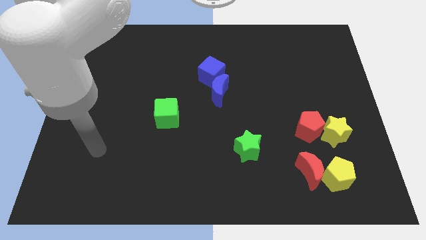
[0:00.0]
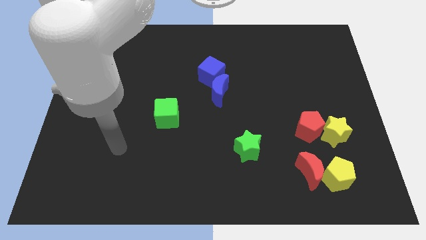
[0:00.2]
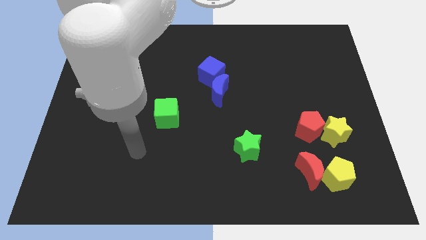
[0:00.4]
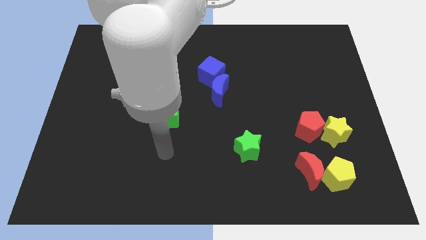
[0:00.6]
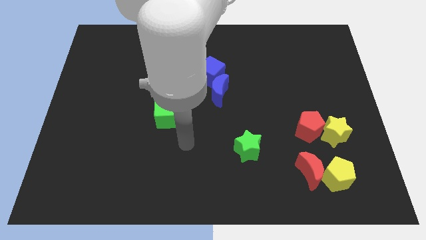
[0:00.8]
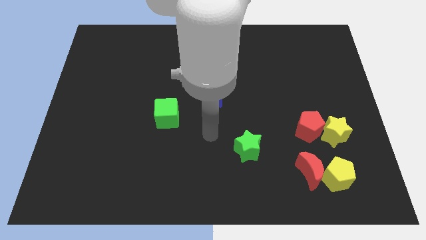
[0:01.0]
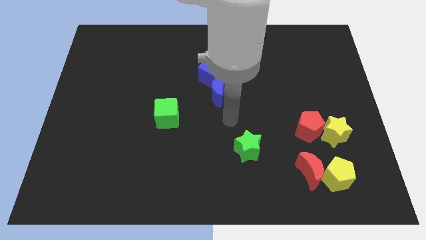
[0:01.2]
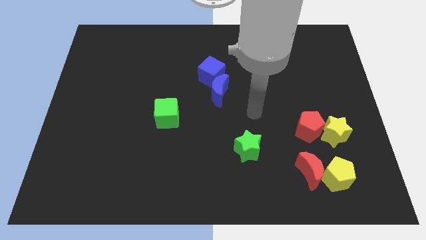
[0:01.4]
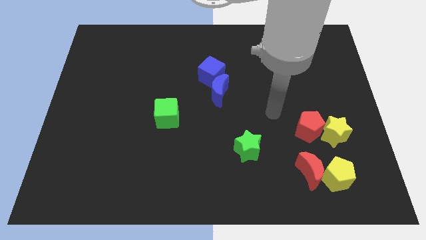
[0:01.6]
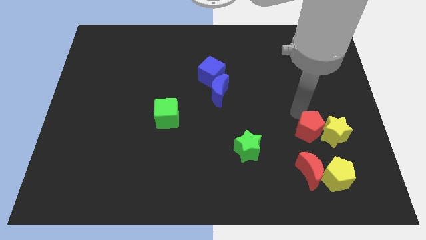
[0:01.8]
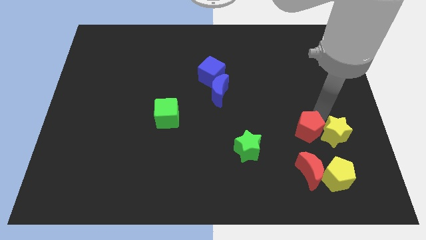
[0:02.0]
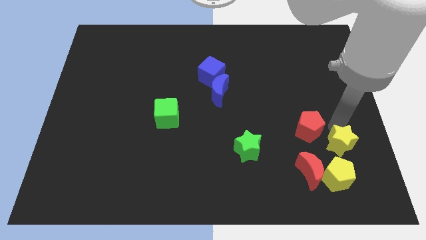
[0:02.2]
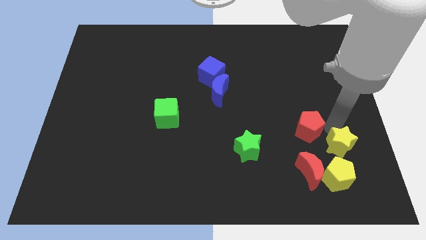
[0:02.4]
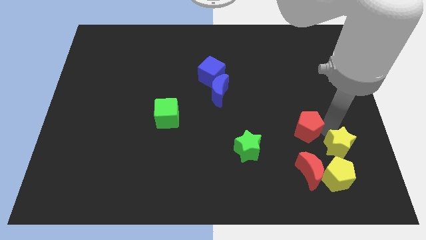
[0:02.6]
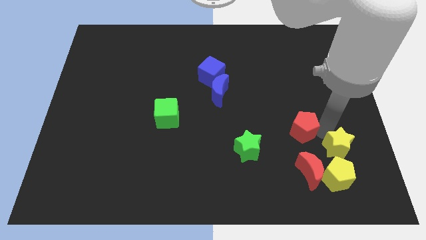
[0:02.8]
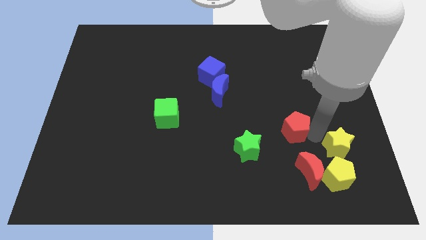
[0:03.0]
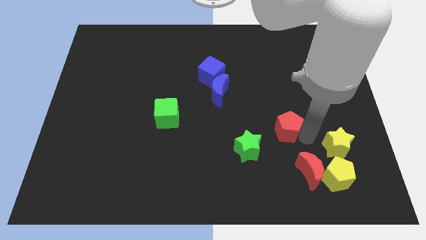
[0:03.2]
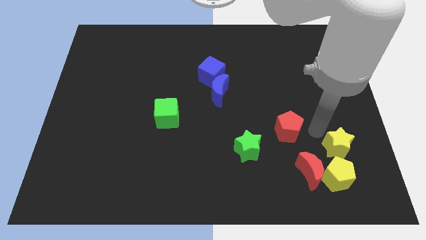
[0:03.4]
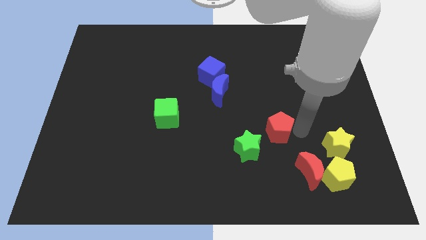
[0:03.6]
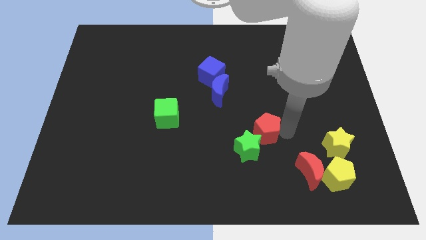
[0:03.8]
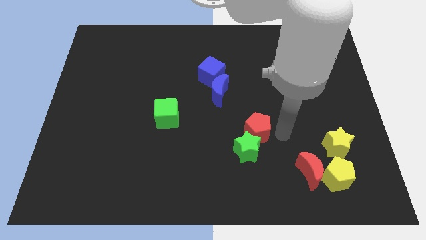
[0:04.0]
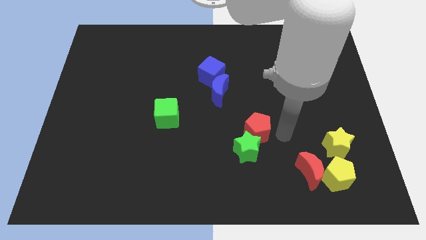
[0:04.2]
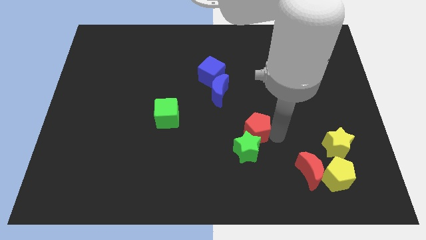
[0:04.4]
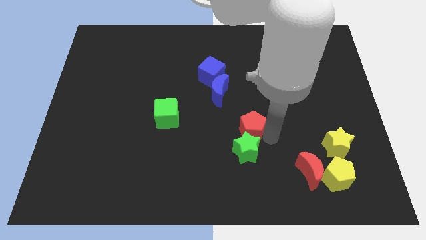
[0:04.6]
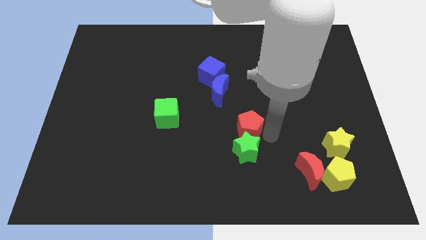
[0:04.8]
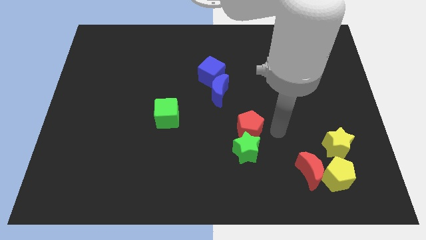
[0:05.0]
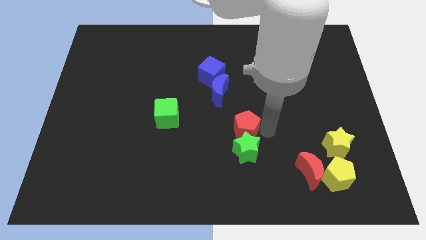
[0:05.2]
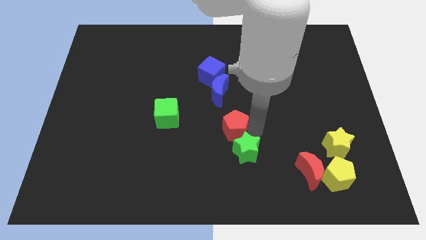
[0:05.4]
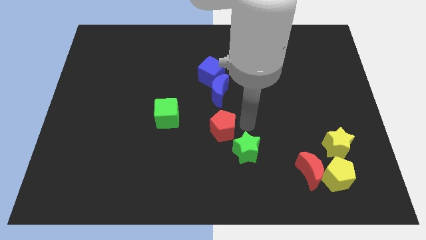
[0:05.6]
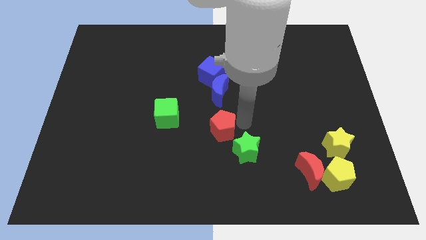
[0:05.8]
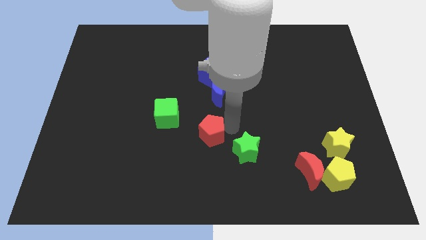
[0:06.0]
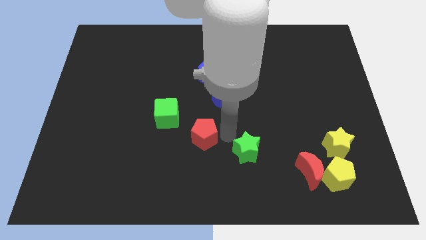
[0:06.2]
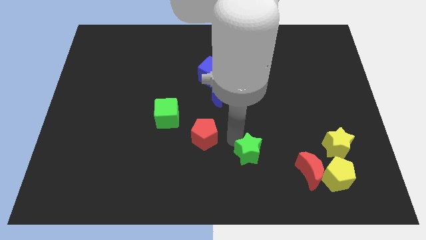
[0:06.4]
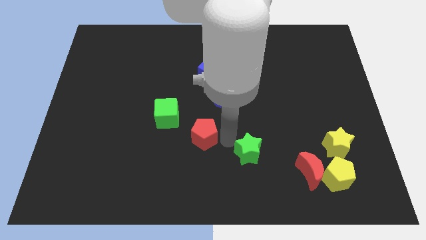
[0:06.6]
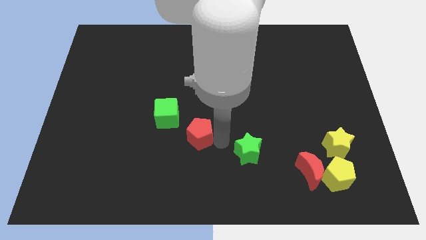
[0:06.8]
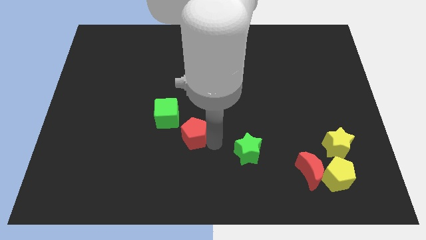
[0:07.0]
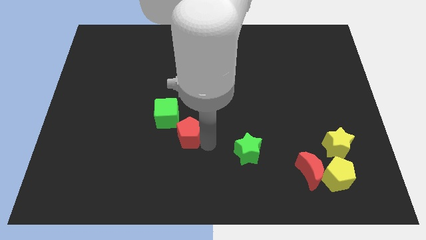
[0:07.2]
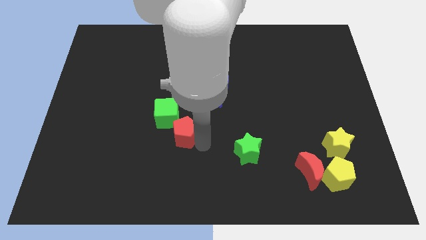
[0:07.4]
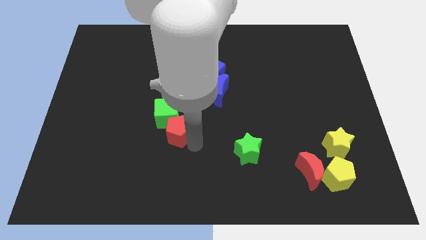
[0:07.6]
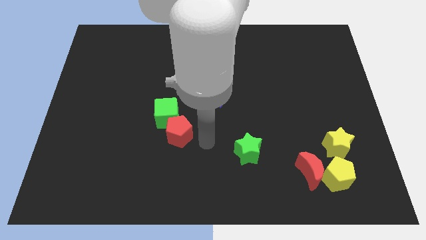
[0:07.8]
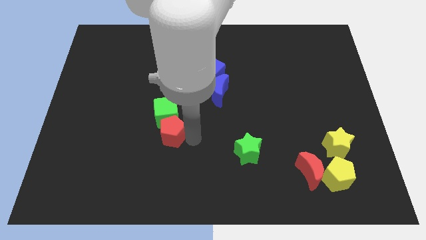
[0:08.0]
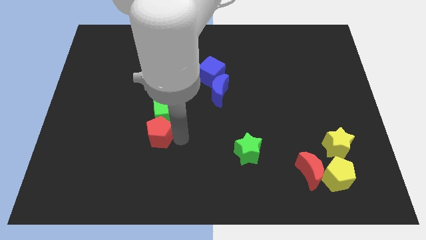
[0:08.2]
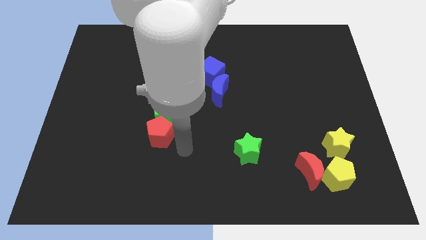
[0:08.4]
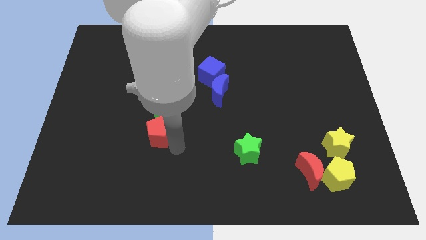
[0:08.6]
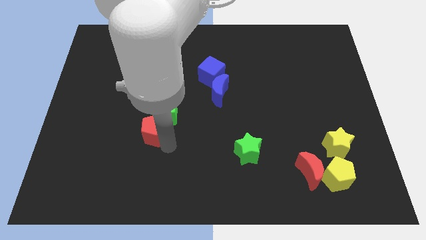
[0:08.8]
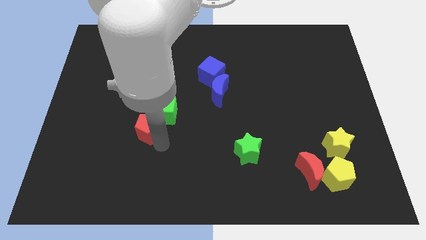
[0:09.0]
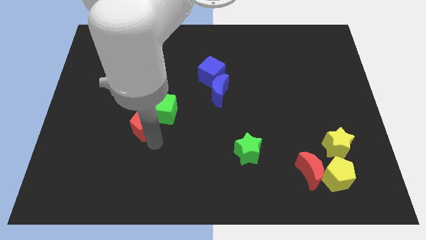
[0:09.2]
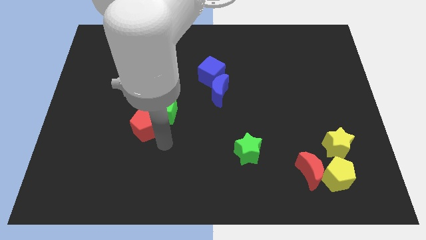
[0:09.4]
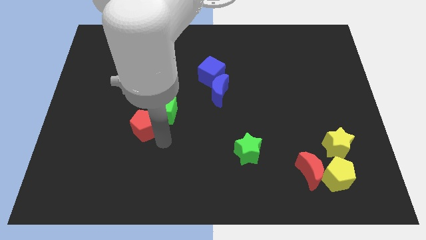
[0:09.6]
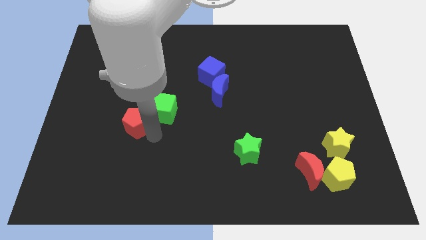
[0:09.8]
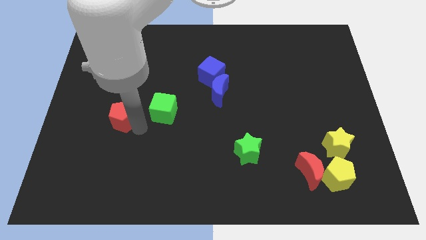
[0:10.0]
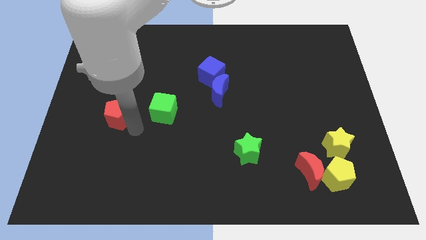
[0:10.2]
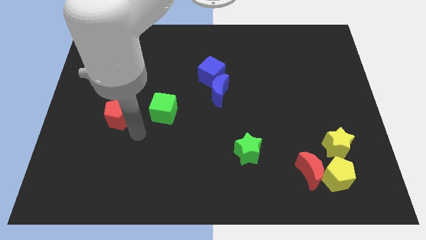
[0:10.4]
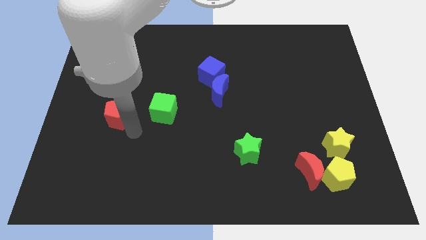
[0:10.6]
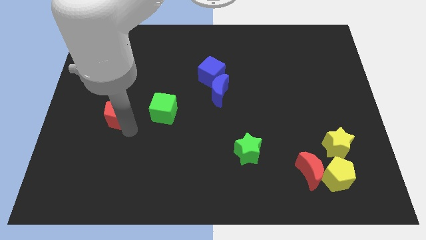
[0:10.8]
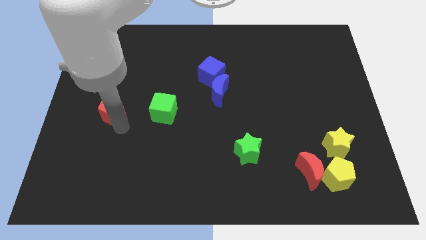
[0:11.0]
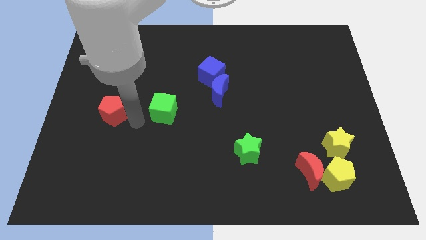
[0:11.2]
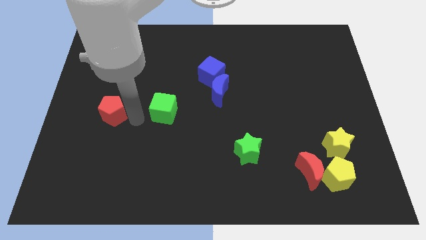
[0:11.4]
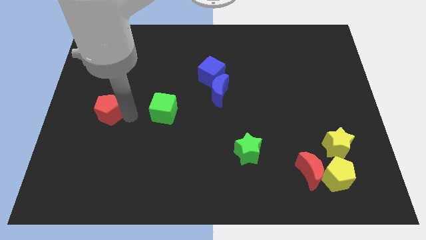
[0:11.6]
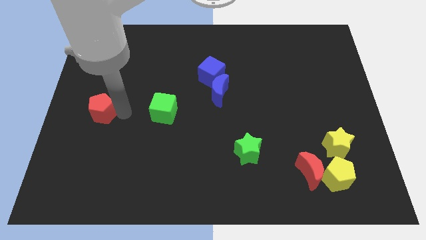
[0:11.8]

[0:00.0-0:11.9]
slide the red pentagon to the center left

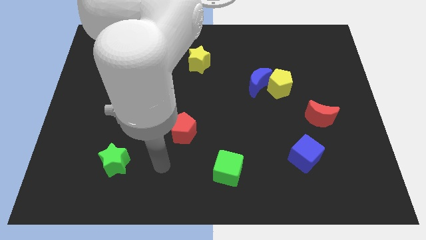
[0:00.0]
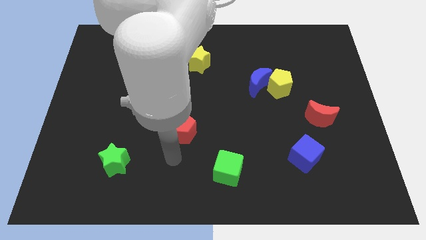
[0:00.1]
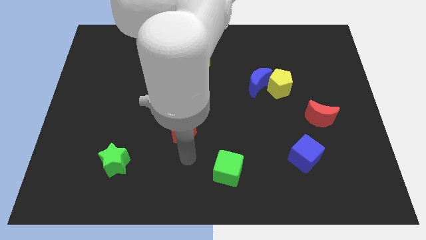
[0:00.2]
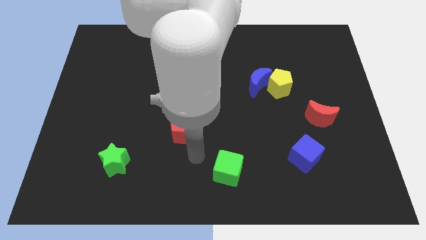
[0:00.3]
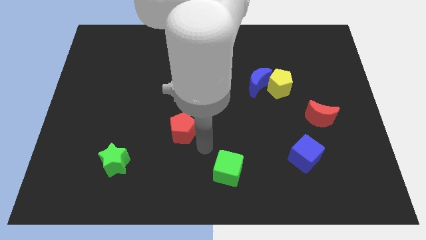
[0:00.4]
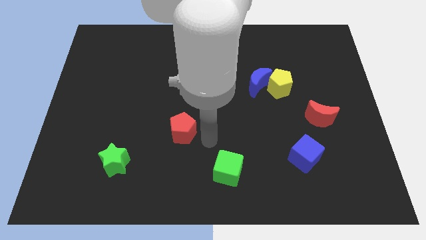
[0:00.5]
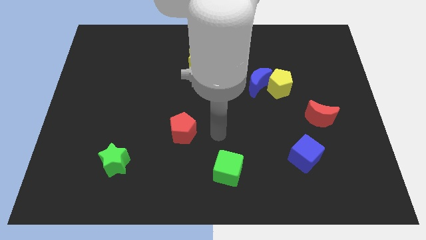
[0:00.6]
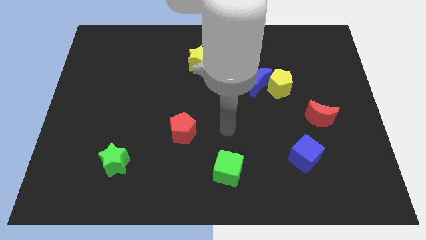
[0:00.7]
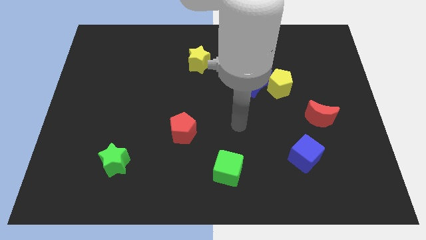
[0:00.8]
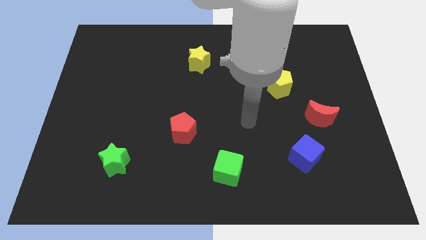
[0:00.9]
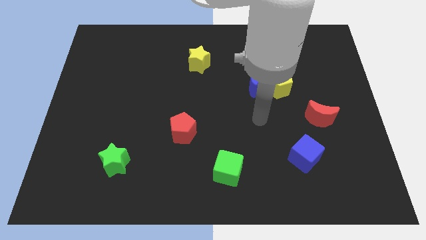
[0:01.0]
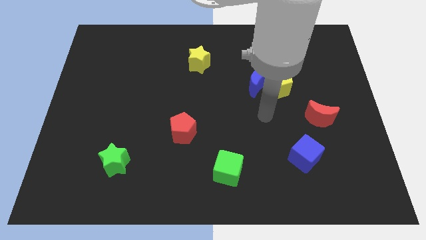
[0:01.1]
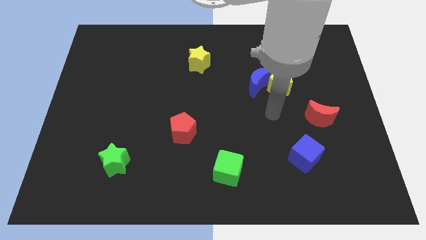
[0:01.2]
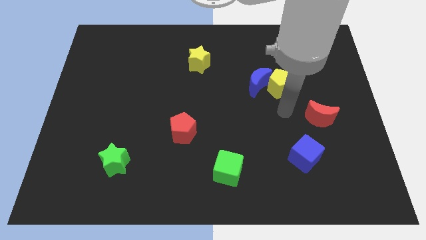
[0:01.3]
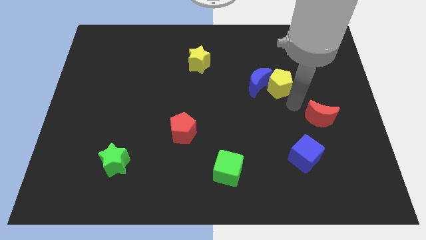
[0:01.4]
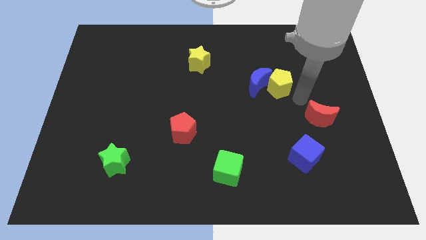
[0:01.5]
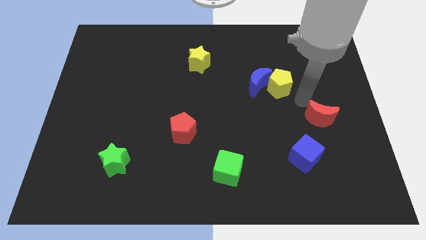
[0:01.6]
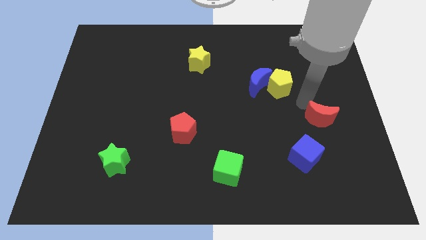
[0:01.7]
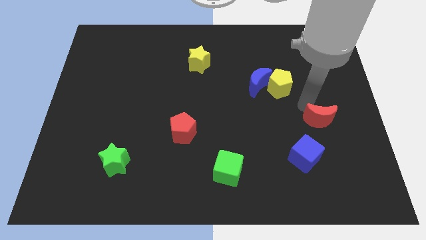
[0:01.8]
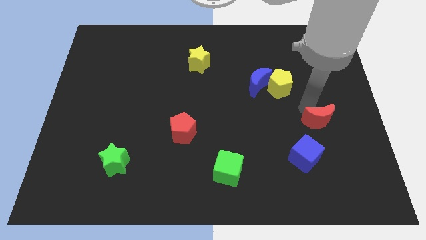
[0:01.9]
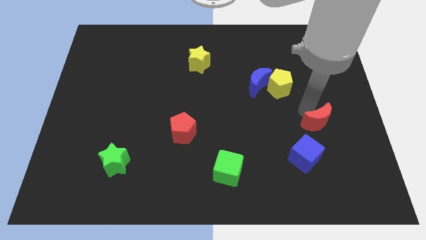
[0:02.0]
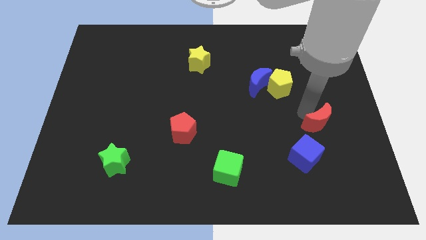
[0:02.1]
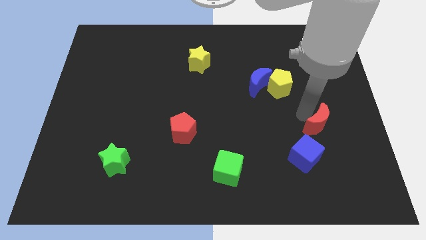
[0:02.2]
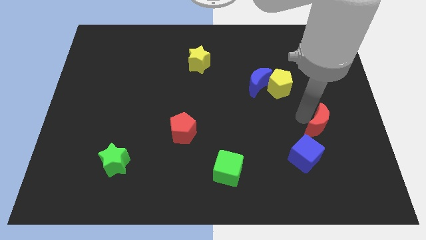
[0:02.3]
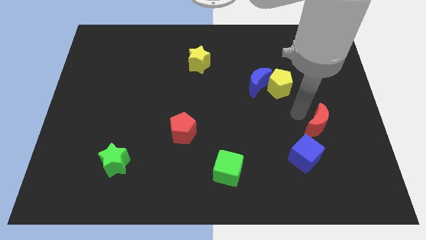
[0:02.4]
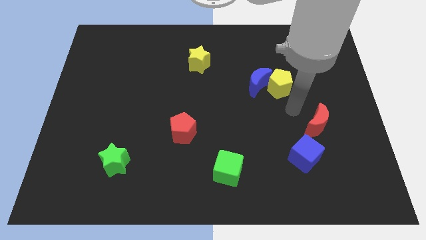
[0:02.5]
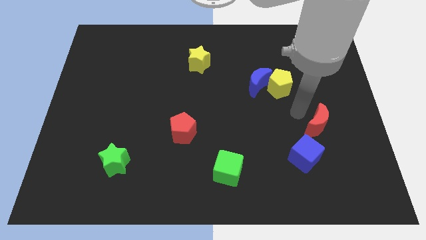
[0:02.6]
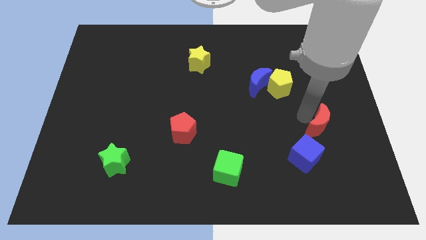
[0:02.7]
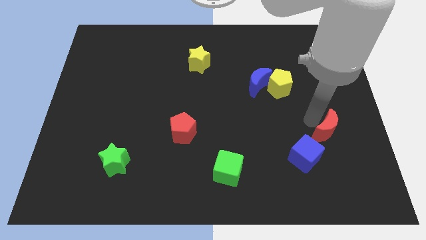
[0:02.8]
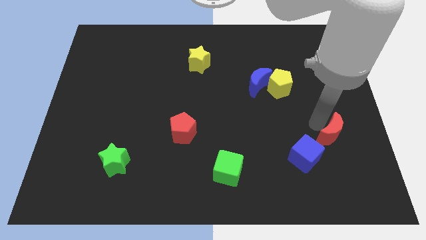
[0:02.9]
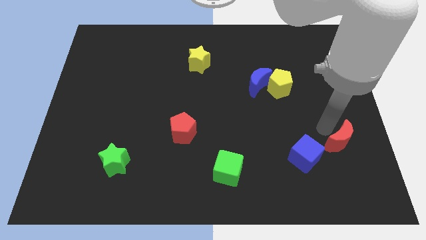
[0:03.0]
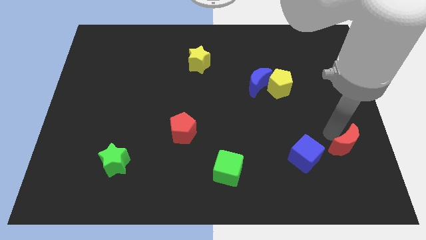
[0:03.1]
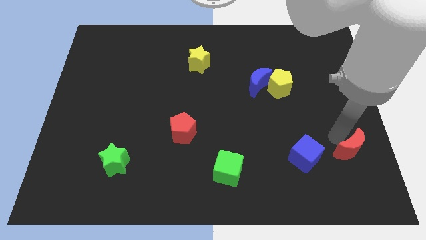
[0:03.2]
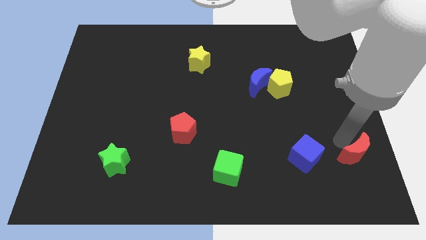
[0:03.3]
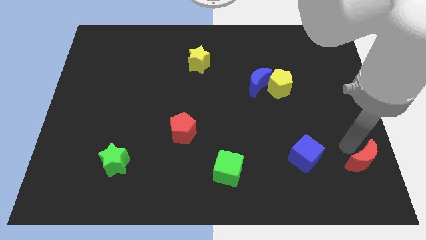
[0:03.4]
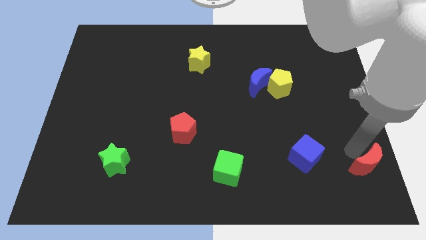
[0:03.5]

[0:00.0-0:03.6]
slide the red moon to the bottom right
